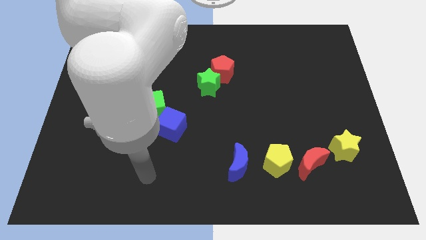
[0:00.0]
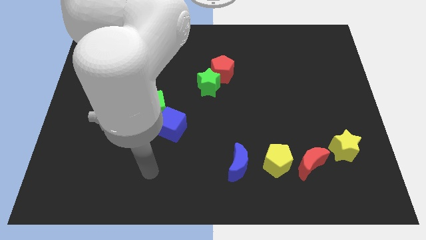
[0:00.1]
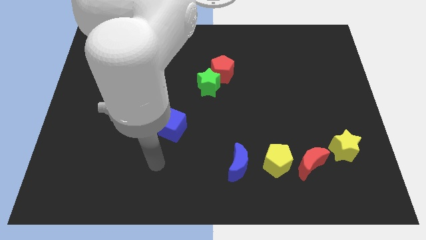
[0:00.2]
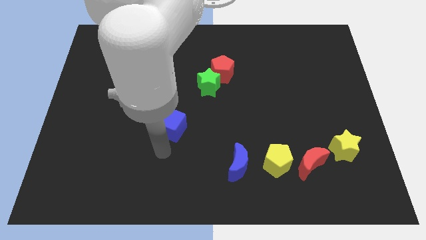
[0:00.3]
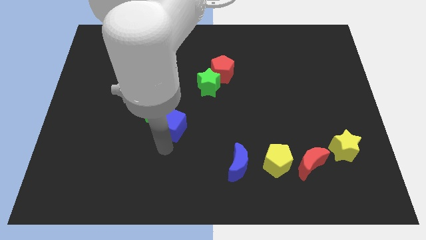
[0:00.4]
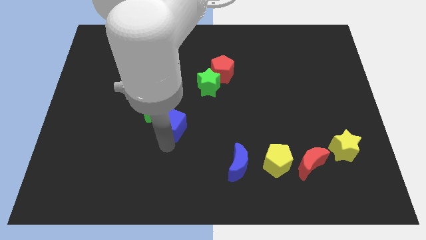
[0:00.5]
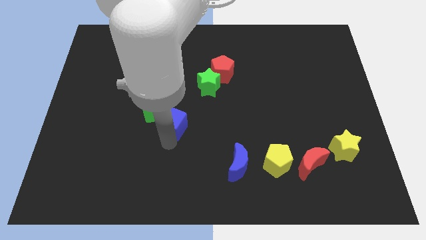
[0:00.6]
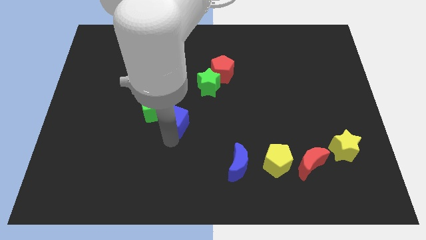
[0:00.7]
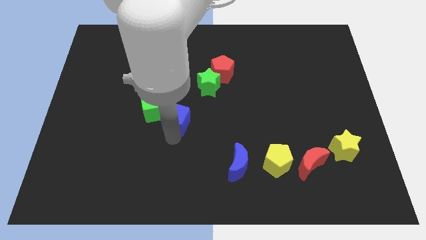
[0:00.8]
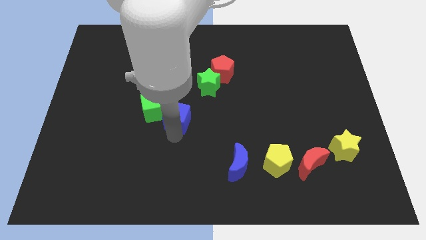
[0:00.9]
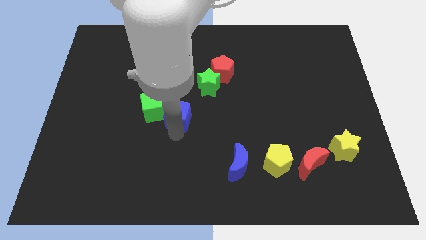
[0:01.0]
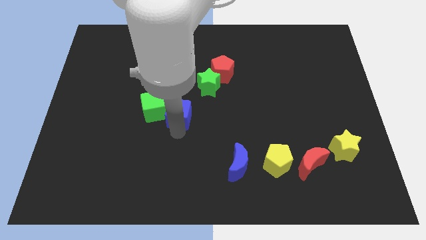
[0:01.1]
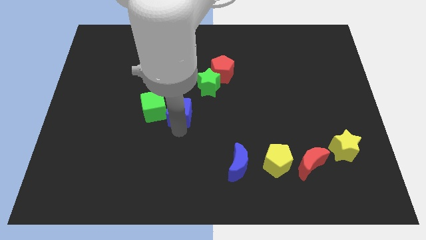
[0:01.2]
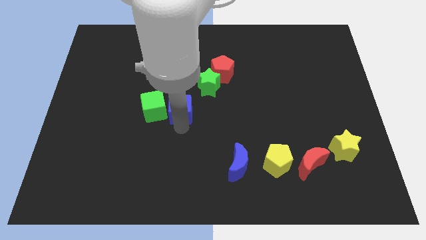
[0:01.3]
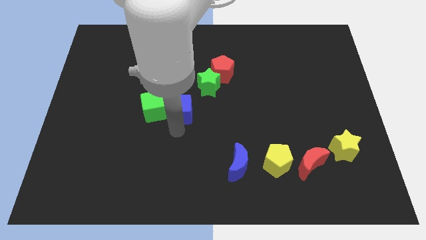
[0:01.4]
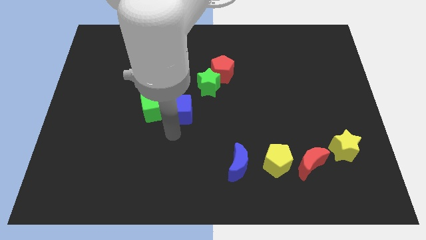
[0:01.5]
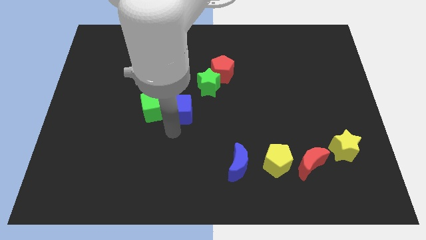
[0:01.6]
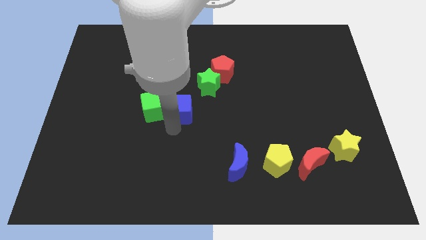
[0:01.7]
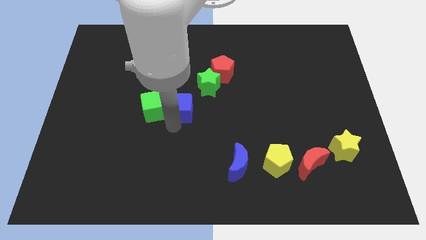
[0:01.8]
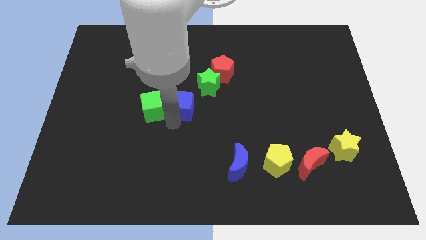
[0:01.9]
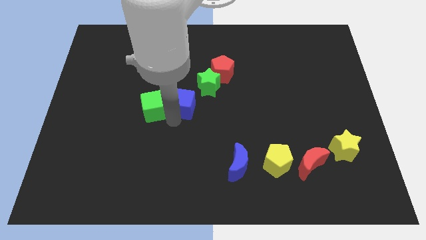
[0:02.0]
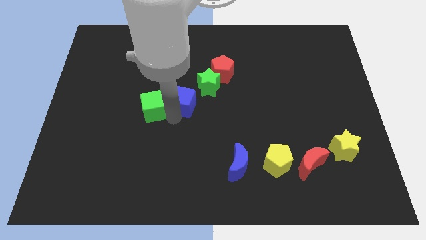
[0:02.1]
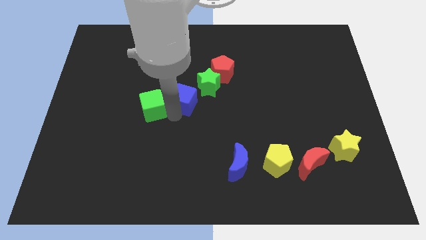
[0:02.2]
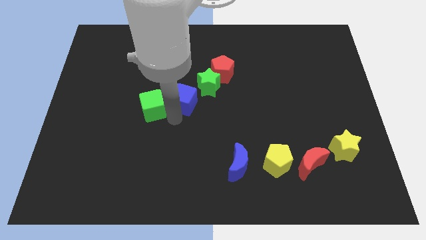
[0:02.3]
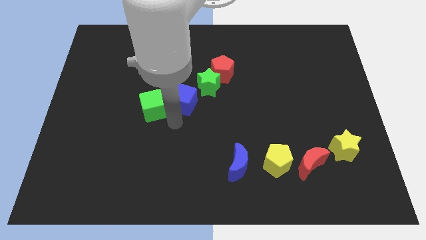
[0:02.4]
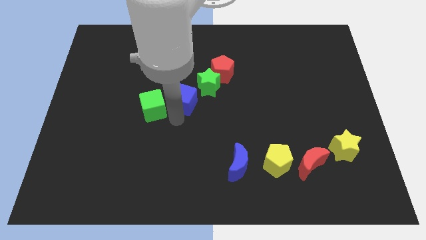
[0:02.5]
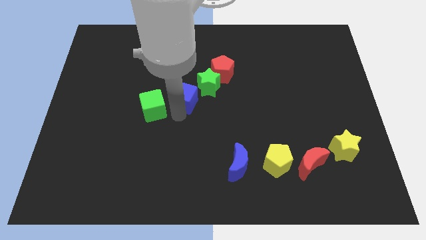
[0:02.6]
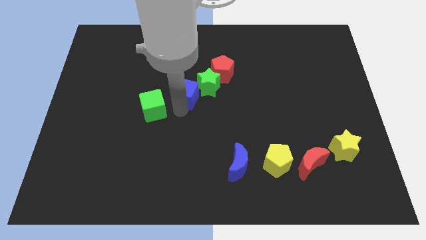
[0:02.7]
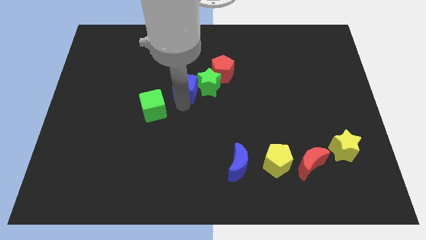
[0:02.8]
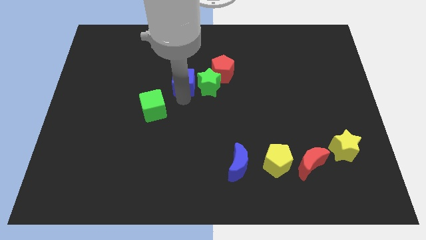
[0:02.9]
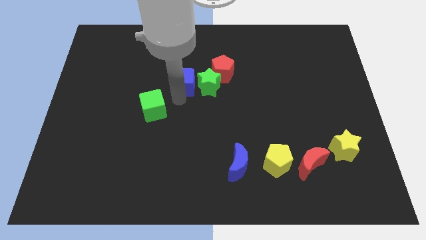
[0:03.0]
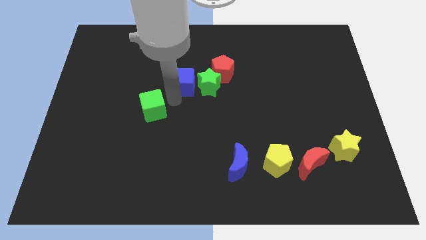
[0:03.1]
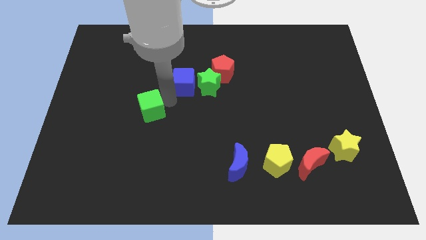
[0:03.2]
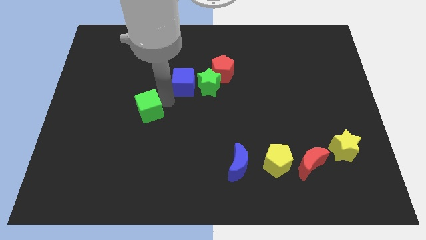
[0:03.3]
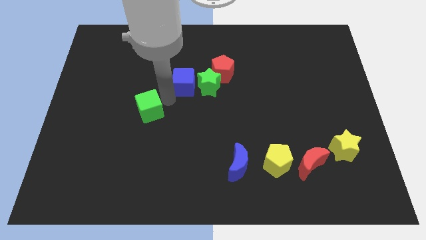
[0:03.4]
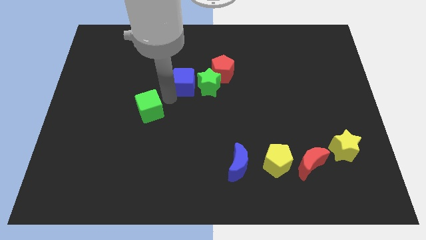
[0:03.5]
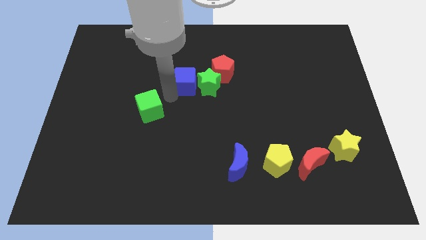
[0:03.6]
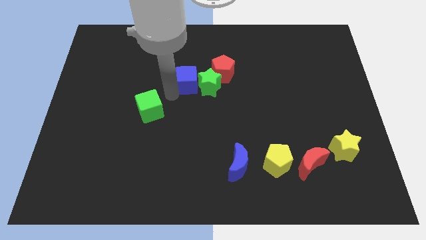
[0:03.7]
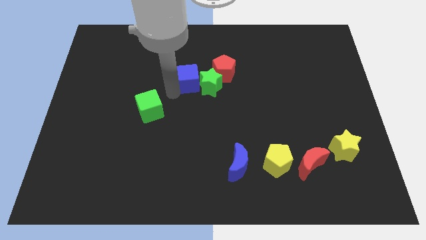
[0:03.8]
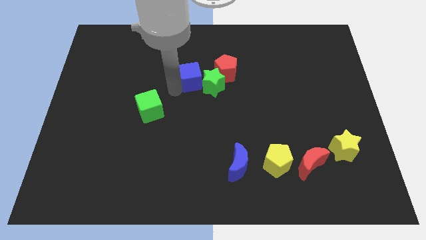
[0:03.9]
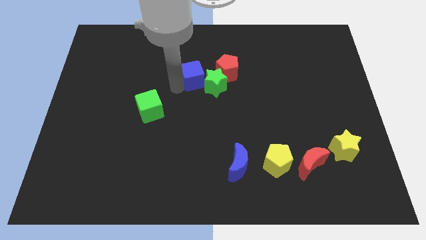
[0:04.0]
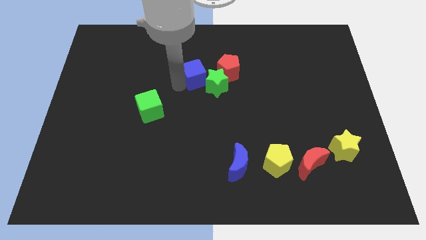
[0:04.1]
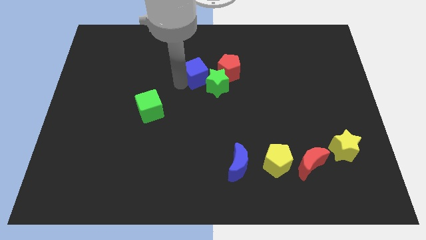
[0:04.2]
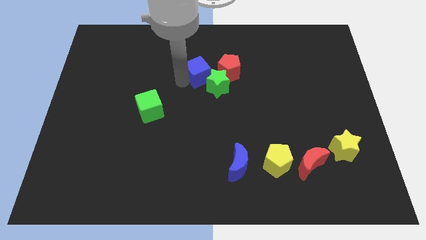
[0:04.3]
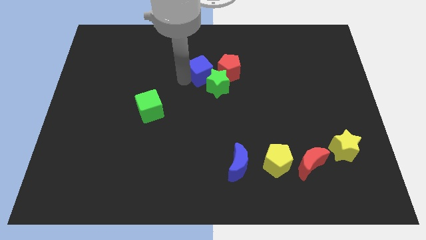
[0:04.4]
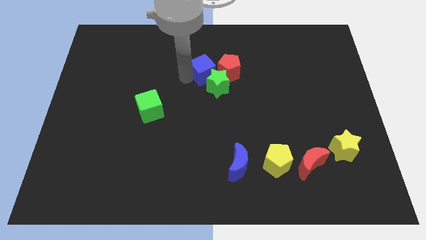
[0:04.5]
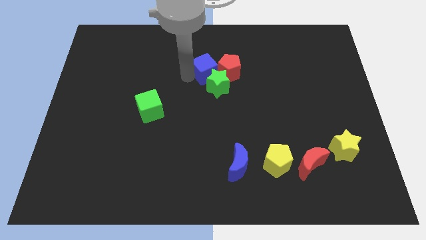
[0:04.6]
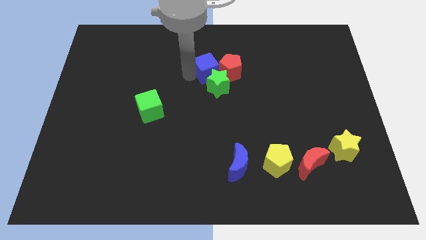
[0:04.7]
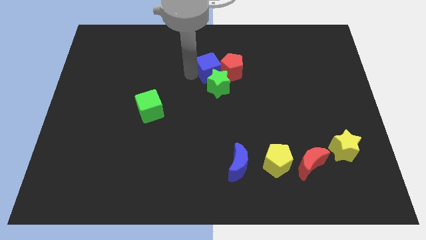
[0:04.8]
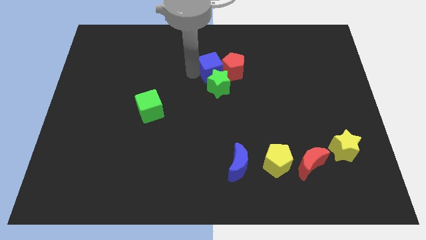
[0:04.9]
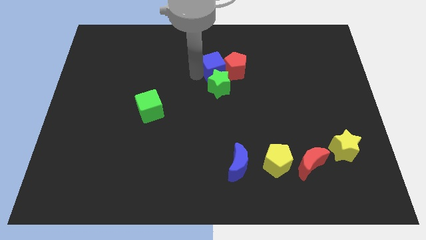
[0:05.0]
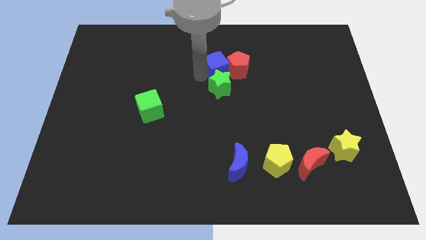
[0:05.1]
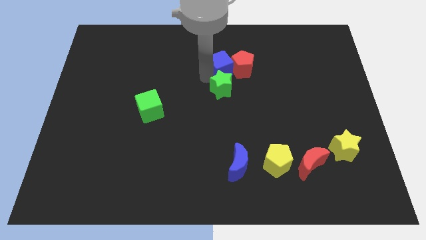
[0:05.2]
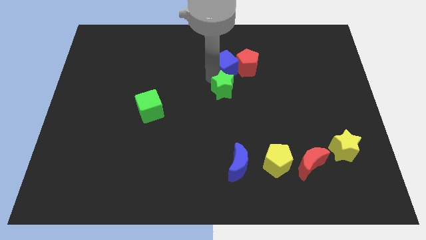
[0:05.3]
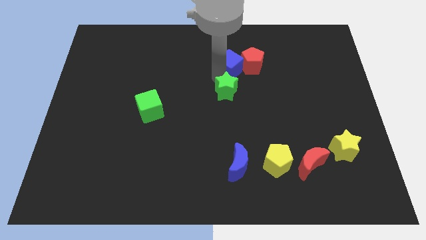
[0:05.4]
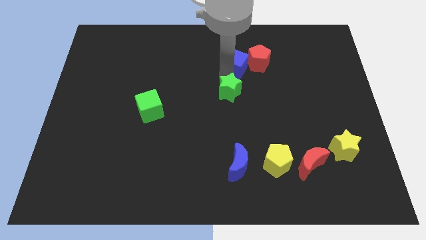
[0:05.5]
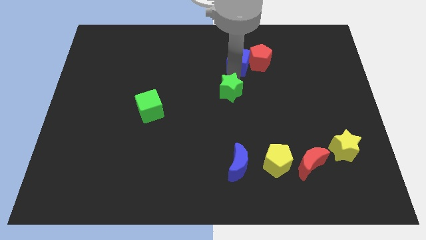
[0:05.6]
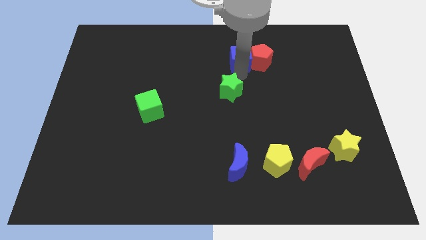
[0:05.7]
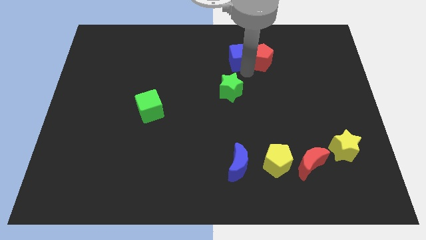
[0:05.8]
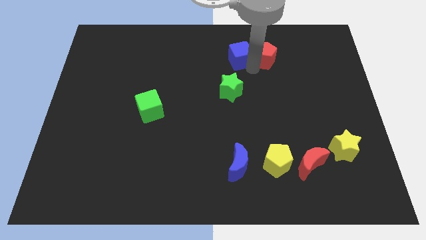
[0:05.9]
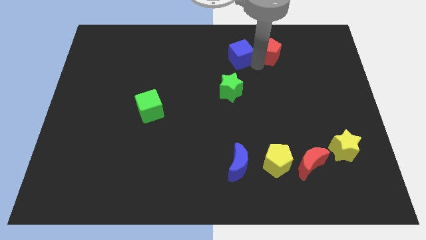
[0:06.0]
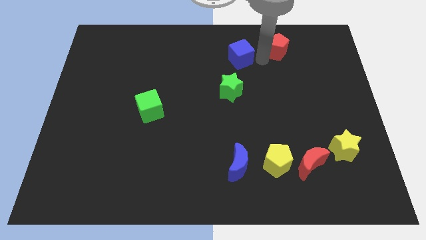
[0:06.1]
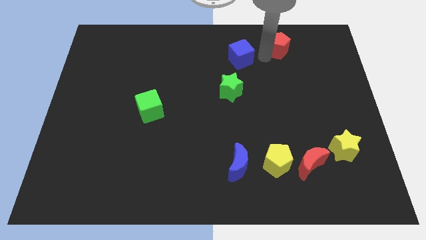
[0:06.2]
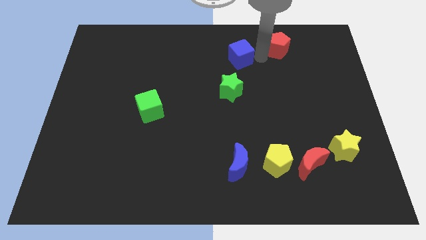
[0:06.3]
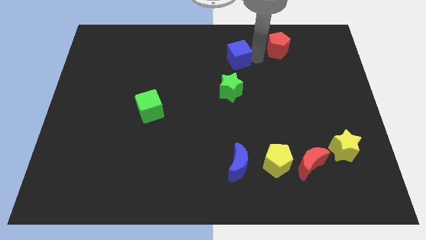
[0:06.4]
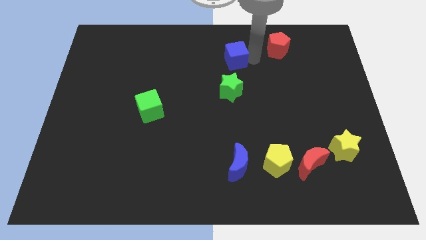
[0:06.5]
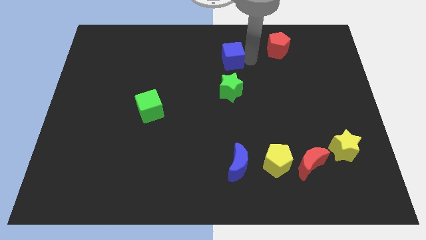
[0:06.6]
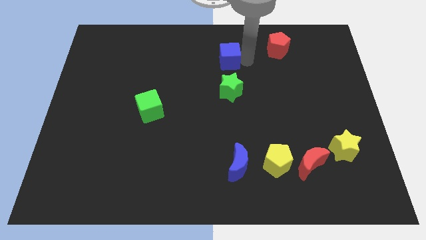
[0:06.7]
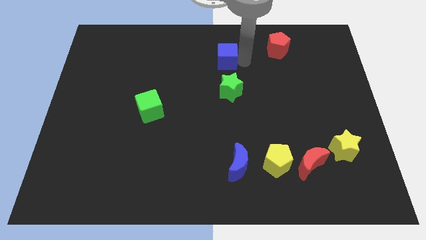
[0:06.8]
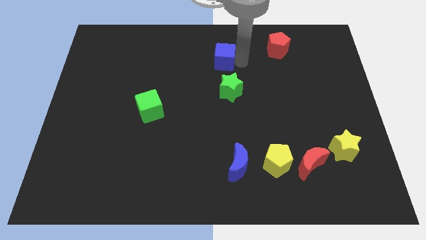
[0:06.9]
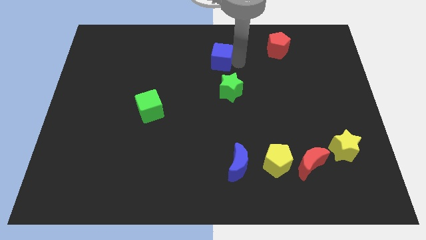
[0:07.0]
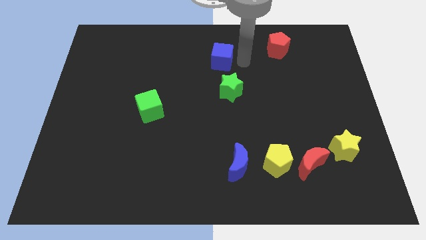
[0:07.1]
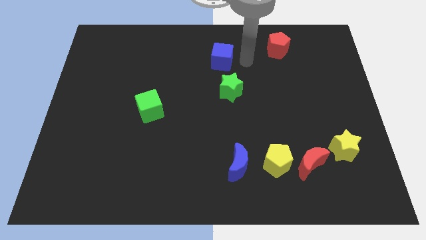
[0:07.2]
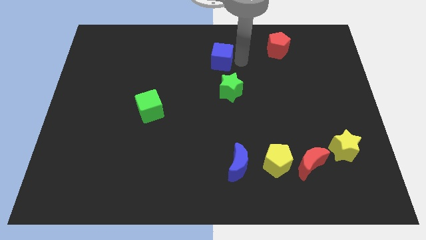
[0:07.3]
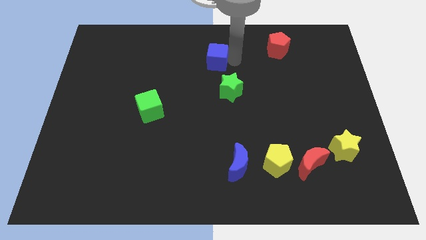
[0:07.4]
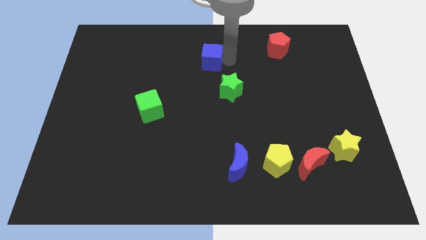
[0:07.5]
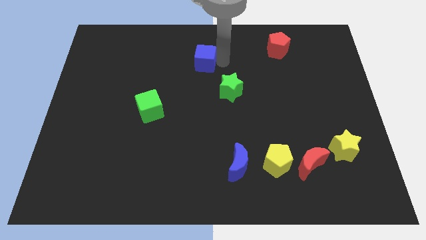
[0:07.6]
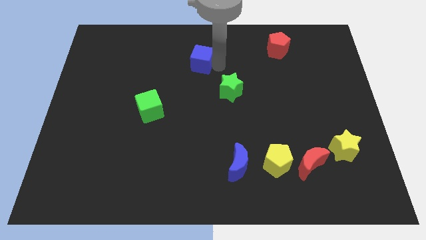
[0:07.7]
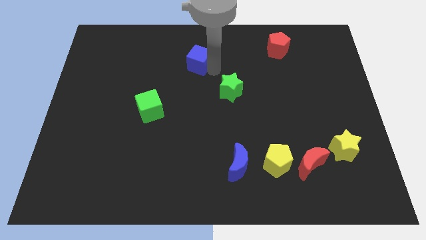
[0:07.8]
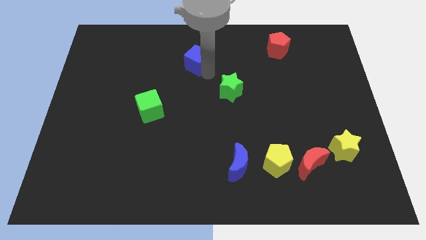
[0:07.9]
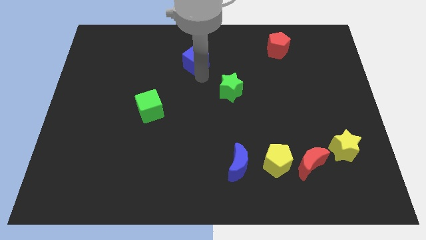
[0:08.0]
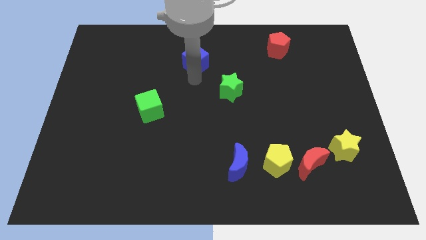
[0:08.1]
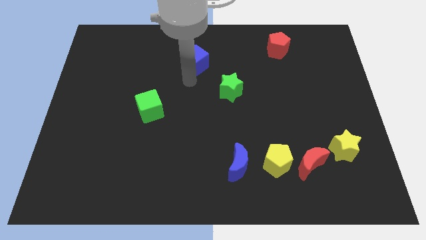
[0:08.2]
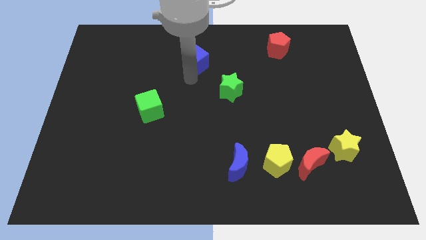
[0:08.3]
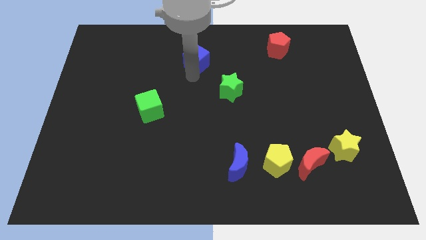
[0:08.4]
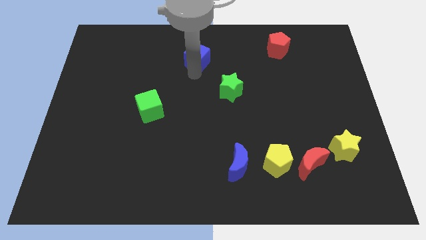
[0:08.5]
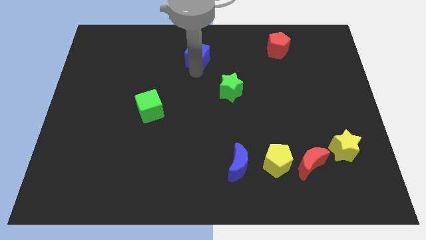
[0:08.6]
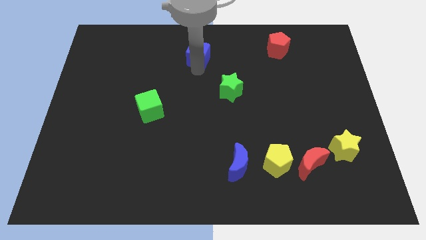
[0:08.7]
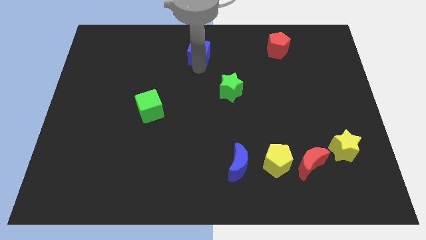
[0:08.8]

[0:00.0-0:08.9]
move the blue cube to the top
